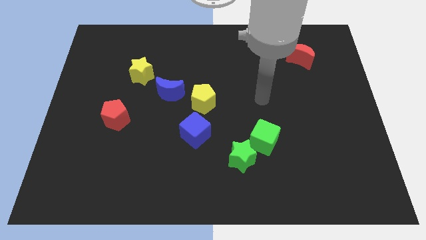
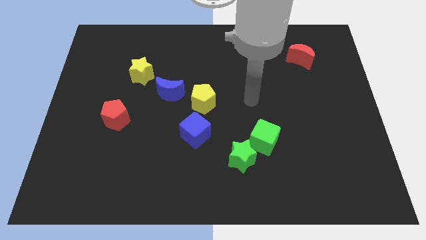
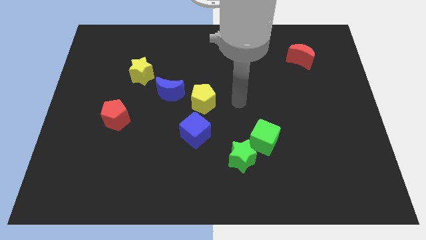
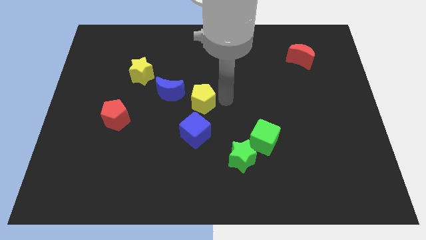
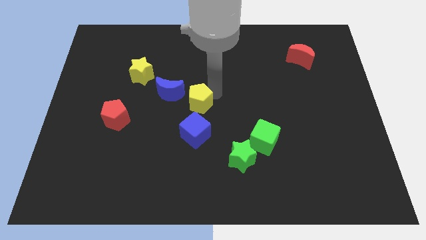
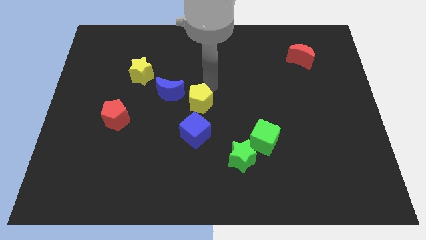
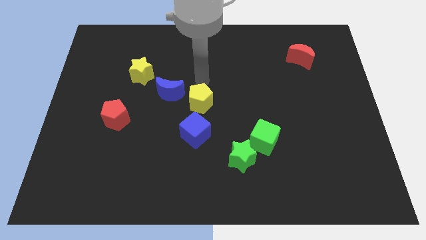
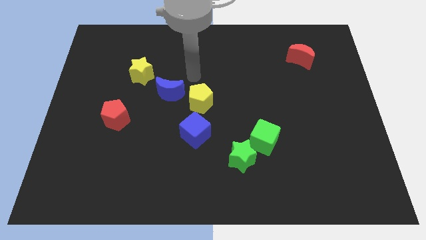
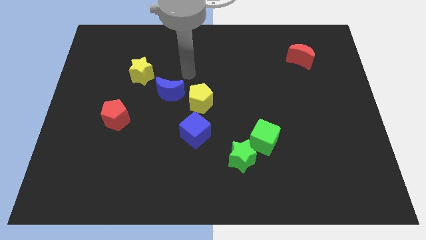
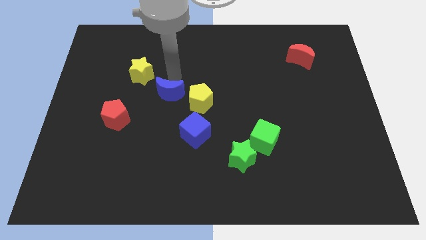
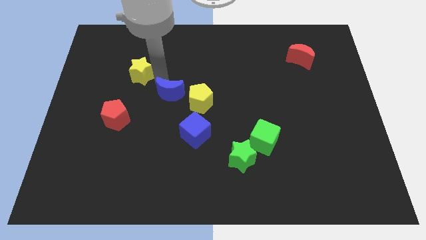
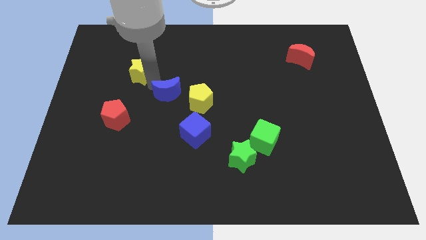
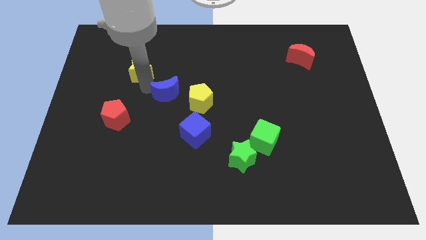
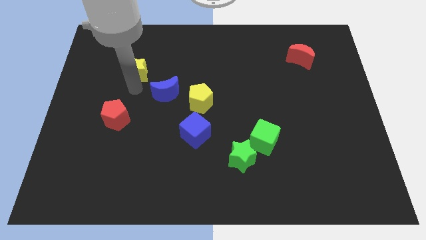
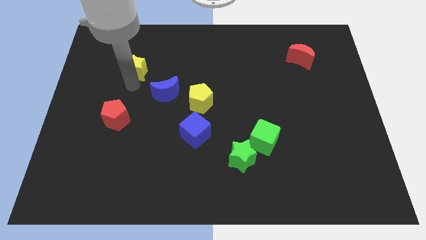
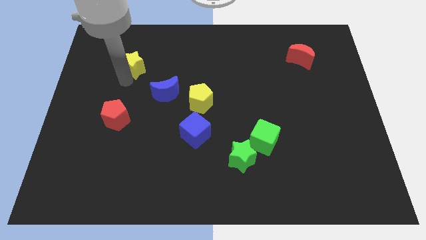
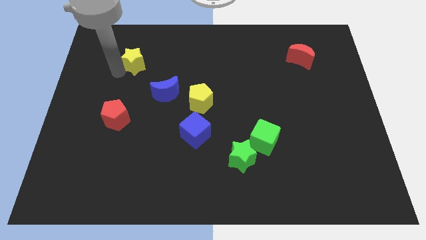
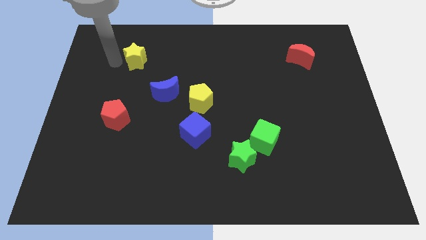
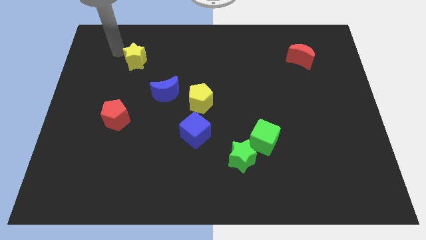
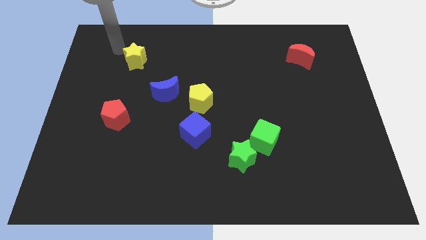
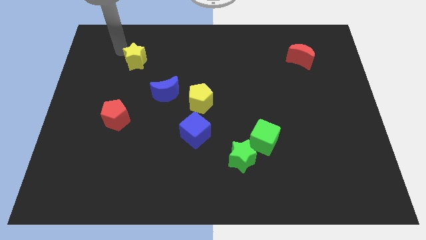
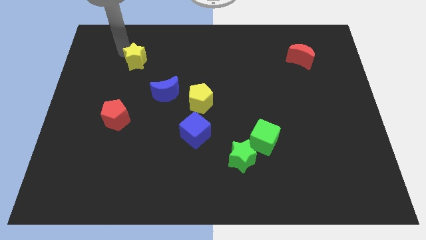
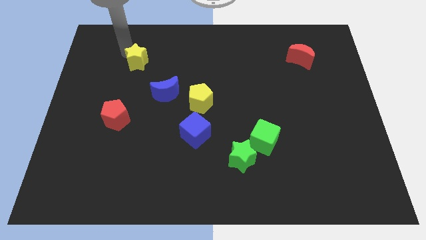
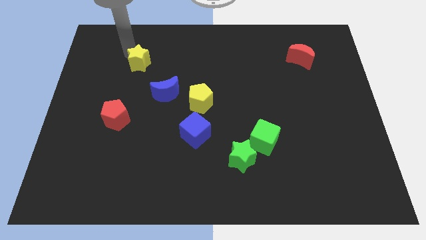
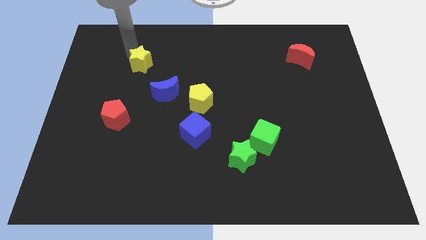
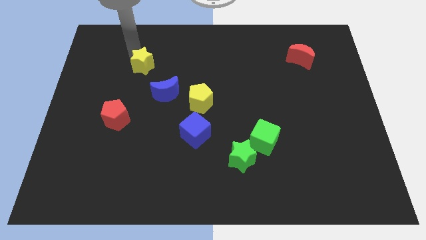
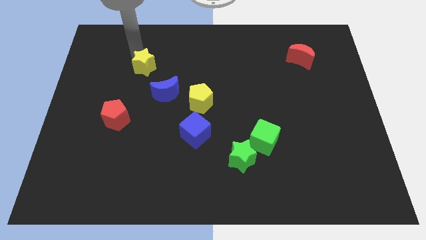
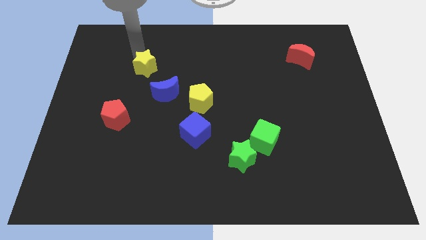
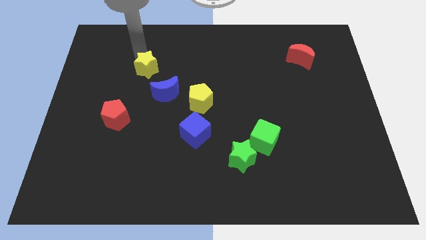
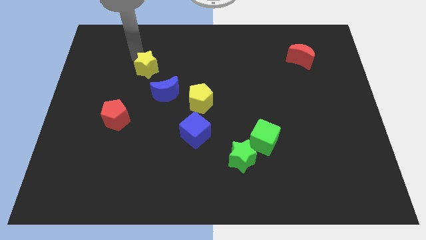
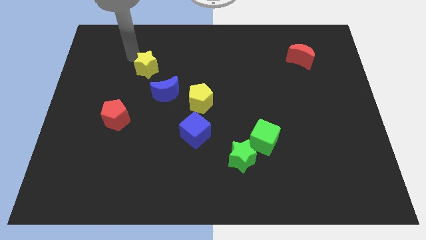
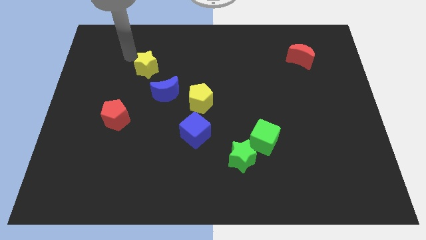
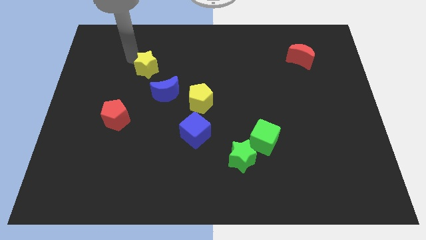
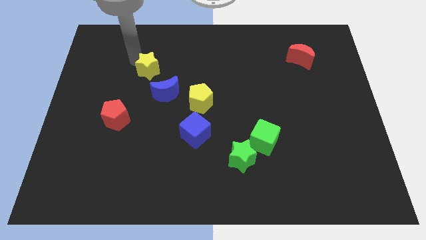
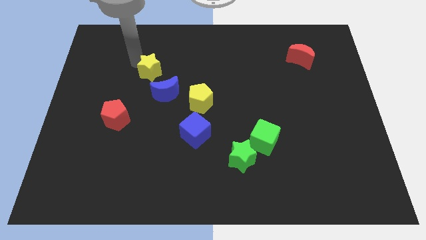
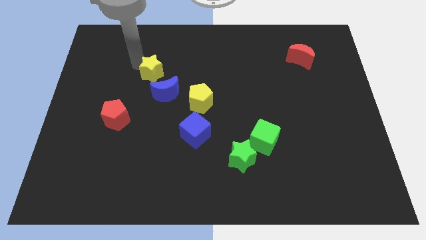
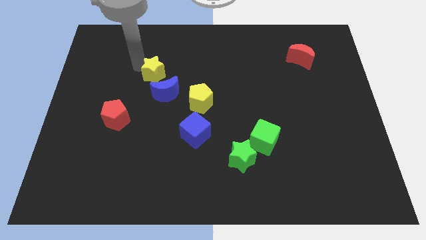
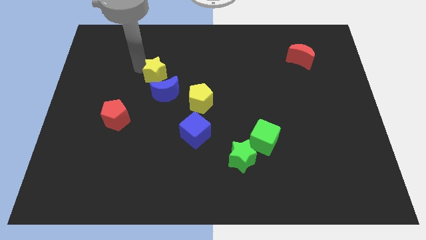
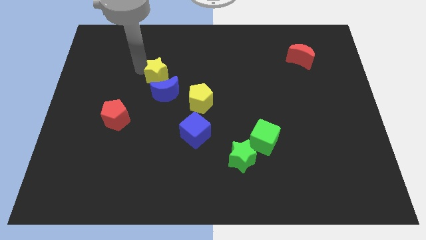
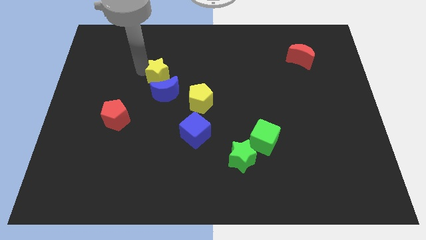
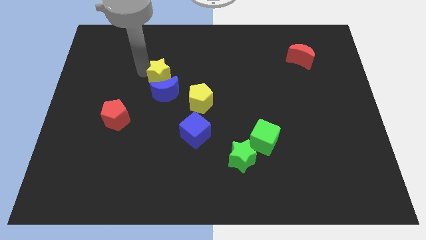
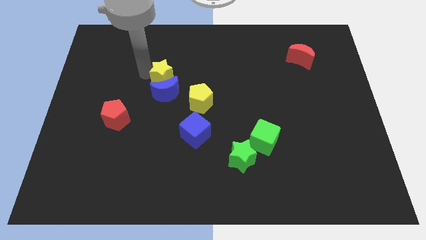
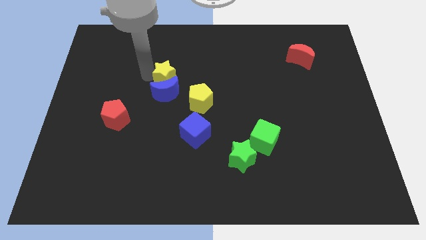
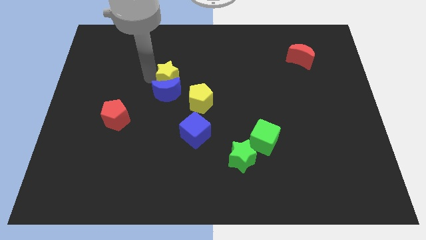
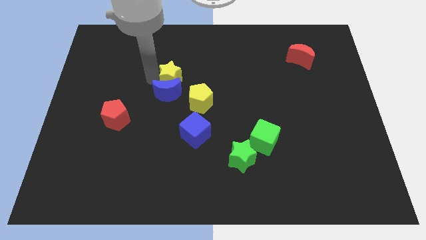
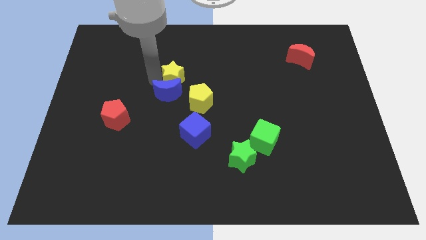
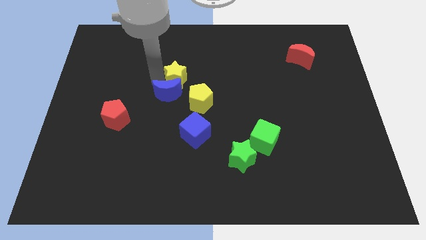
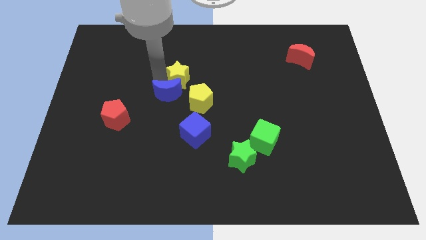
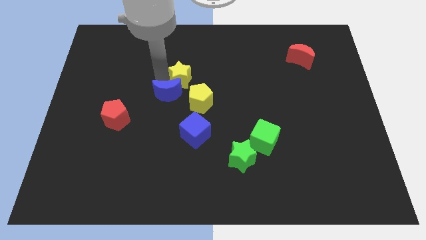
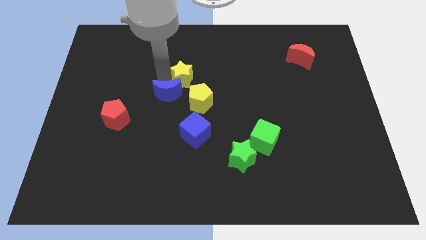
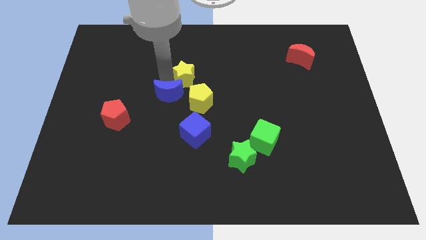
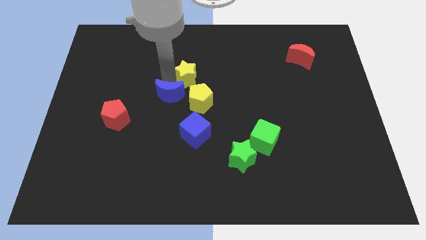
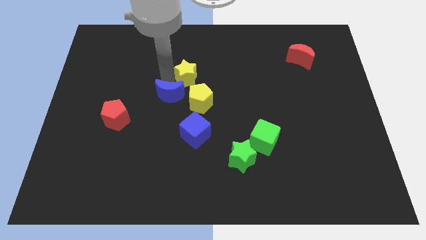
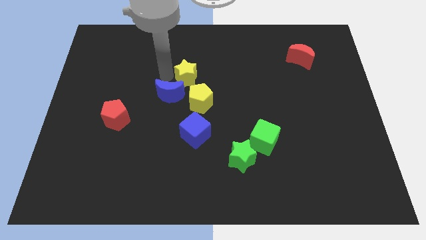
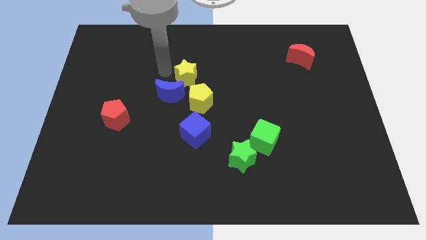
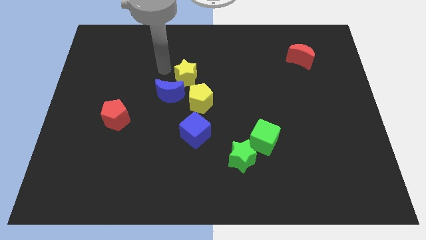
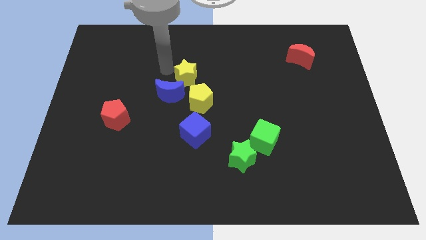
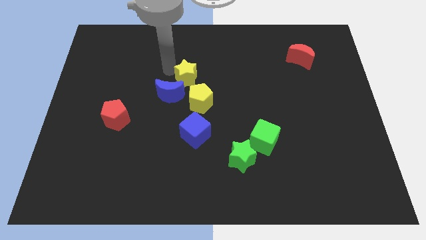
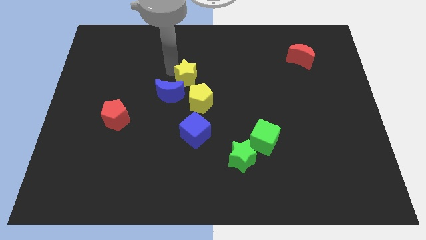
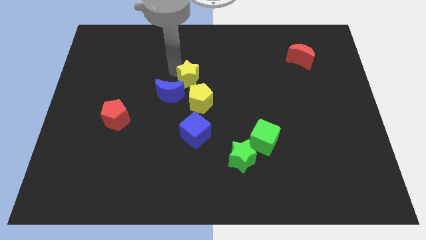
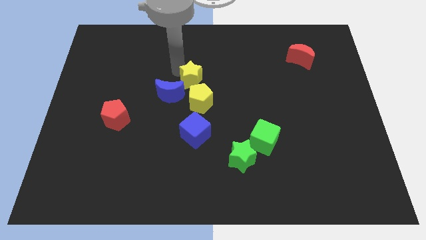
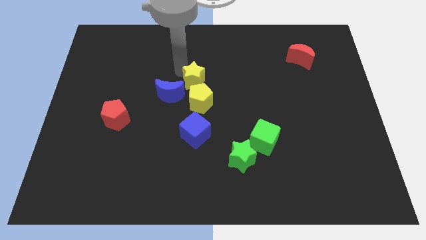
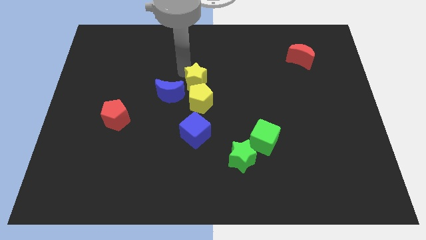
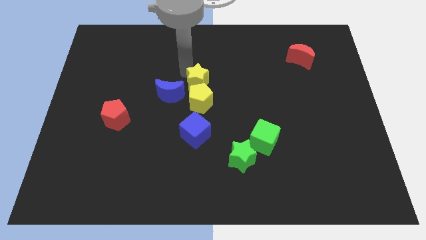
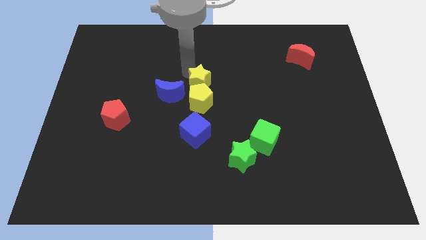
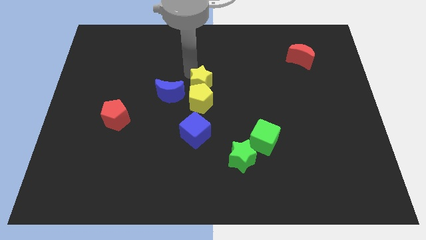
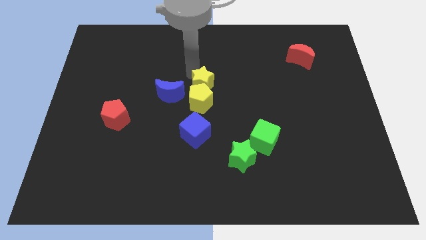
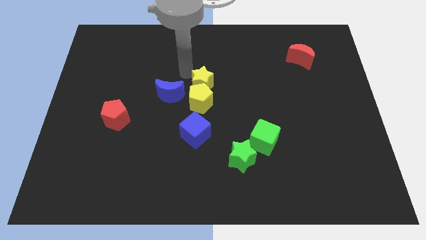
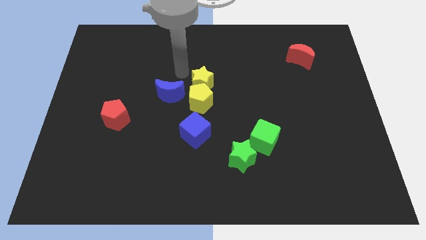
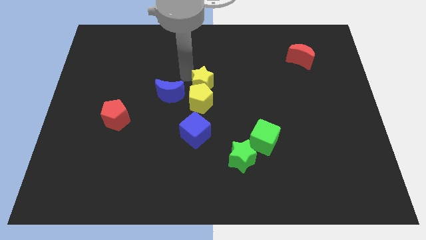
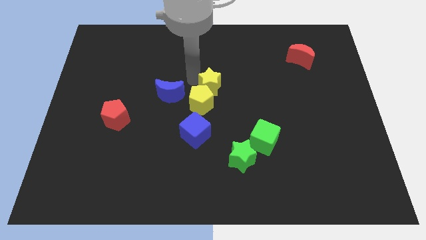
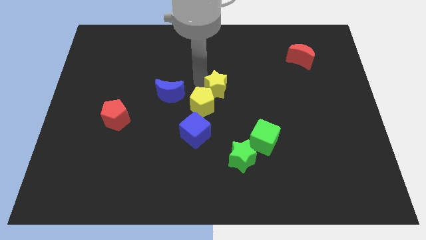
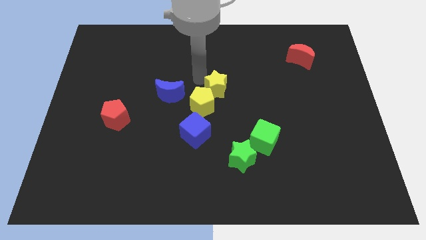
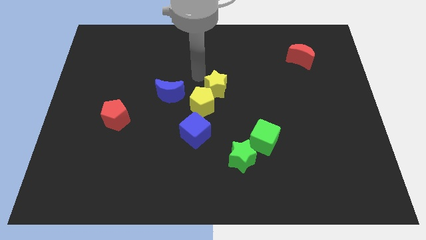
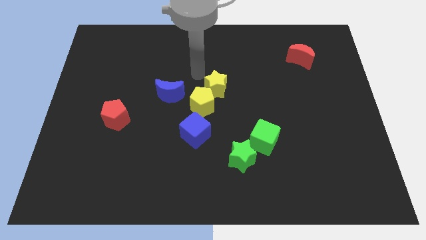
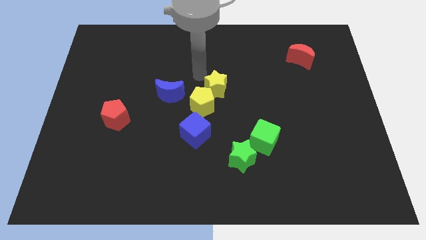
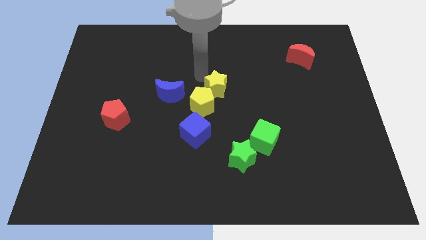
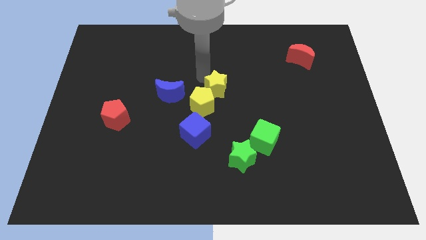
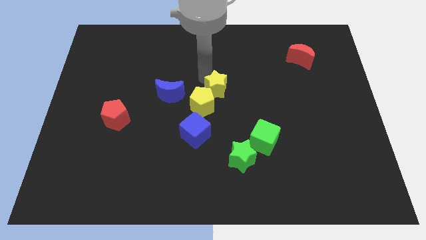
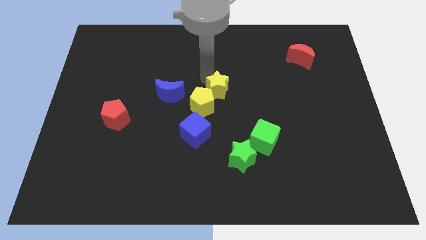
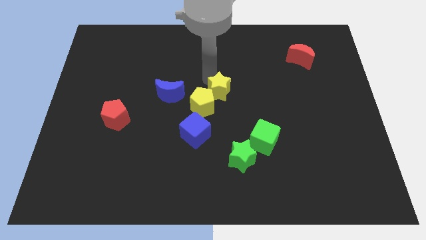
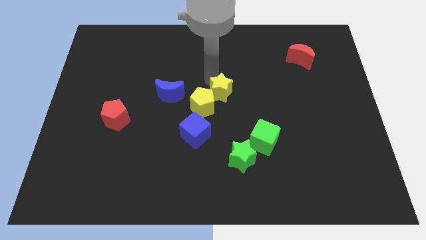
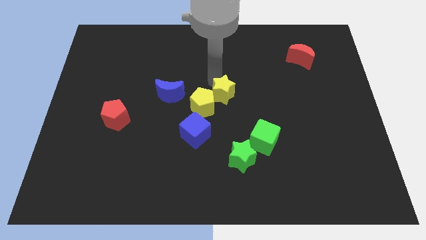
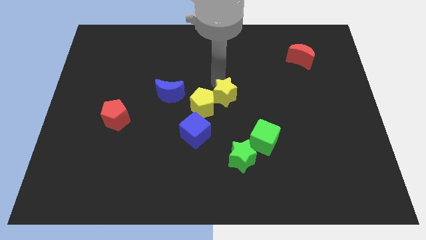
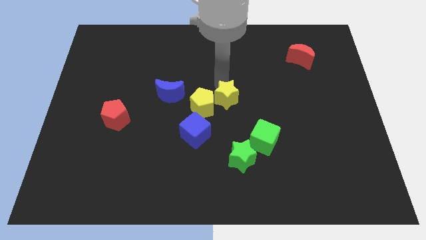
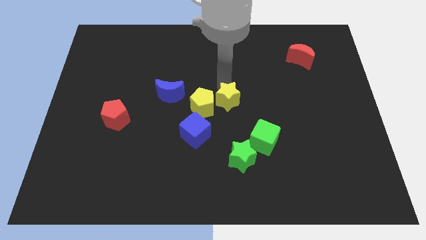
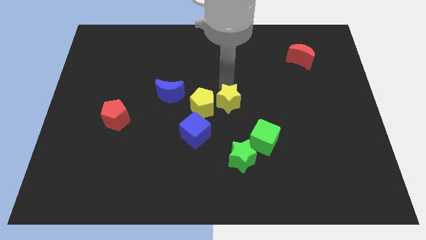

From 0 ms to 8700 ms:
move the yellow star to the top side of the green star
